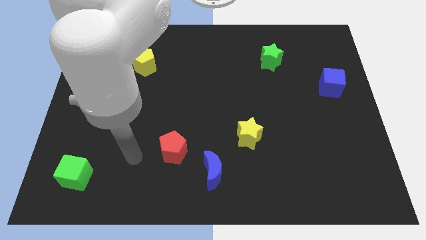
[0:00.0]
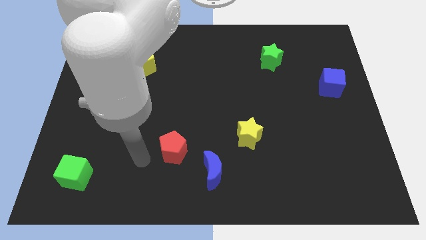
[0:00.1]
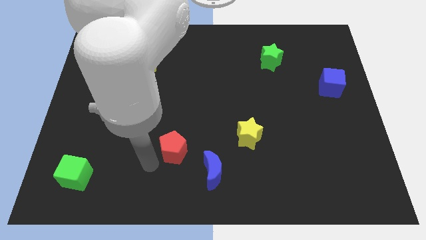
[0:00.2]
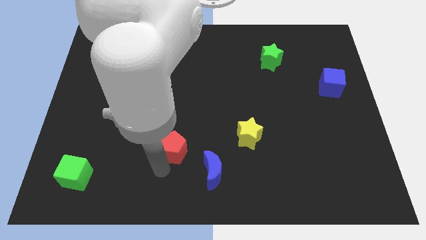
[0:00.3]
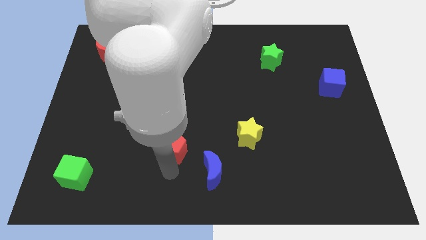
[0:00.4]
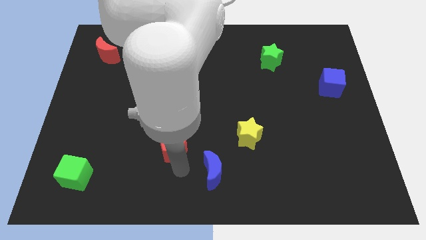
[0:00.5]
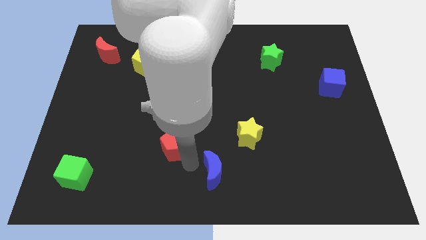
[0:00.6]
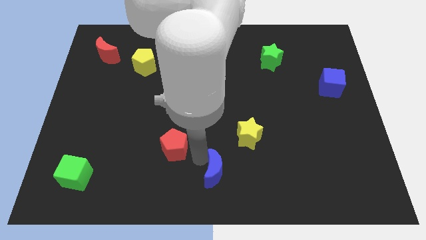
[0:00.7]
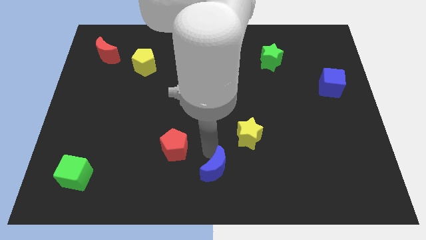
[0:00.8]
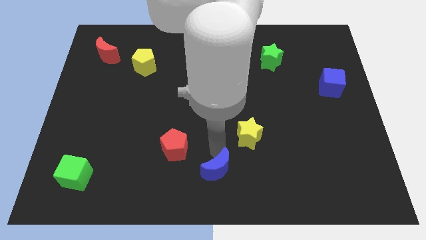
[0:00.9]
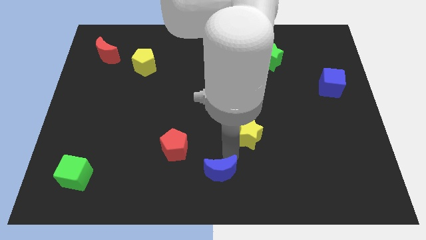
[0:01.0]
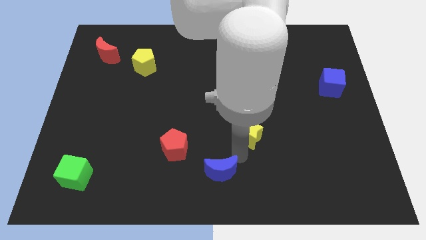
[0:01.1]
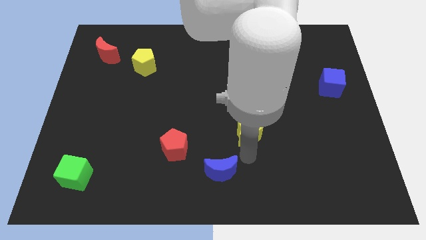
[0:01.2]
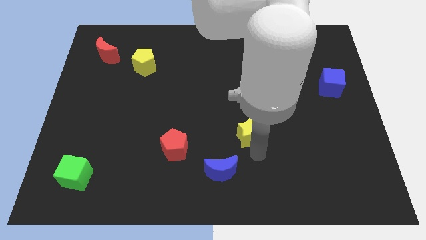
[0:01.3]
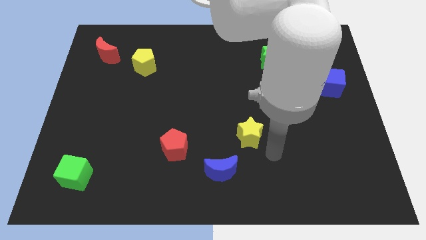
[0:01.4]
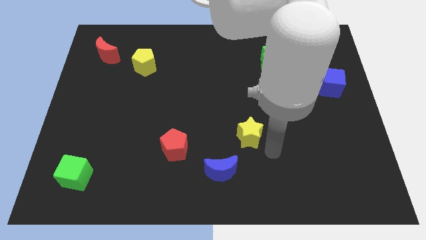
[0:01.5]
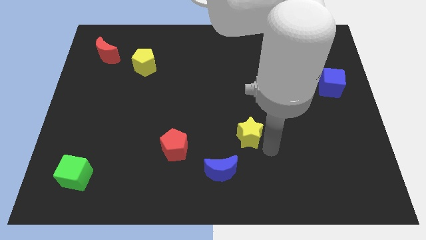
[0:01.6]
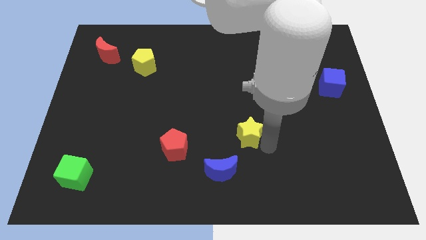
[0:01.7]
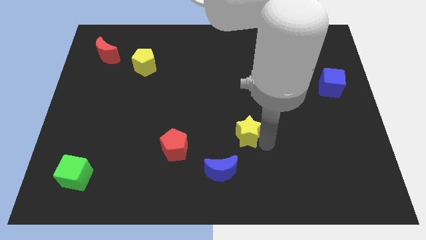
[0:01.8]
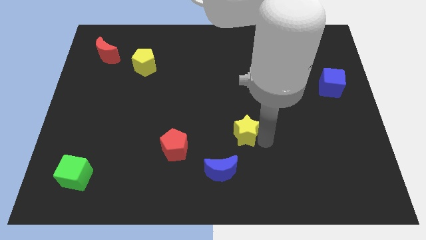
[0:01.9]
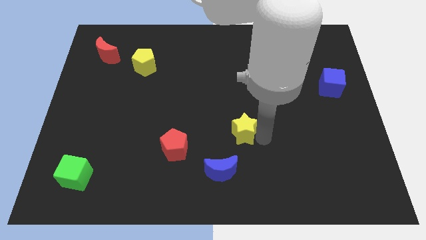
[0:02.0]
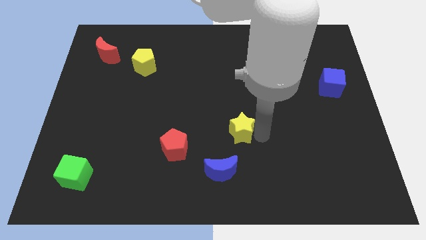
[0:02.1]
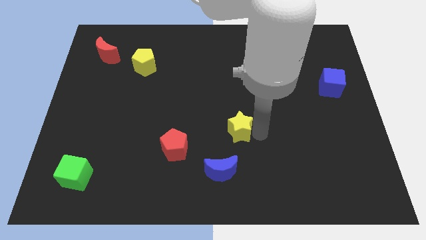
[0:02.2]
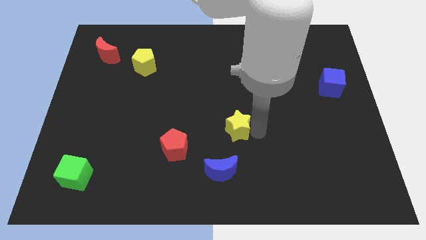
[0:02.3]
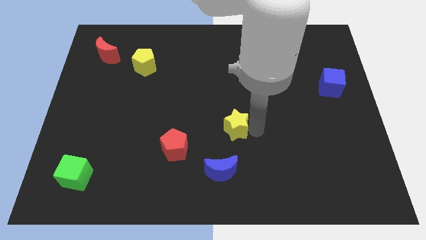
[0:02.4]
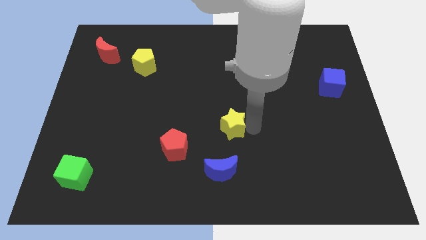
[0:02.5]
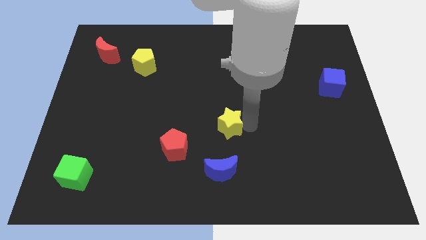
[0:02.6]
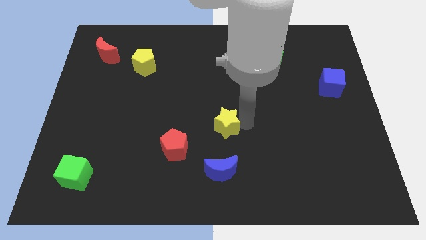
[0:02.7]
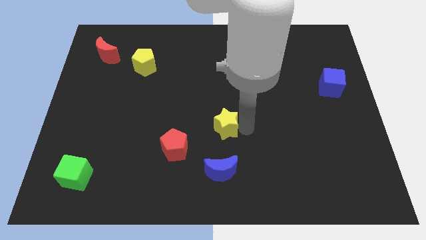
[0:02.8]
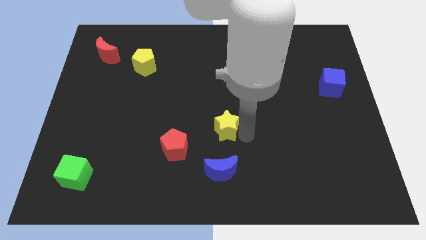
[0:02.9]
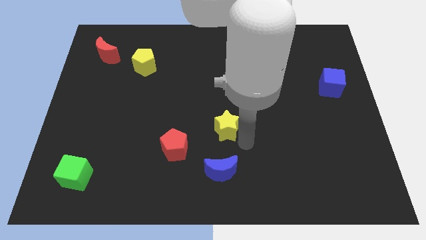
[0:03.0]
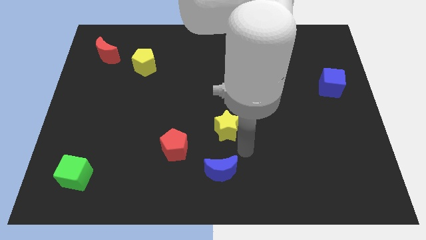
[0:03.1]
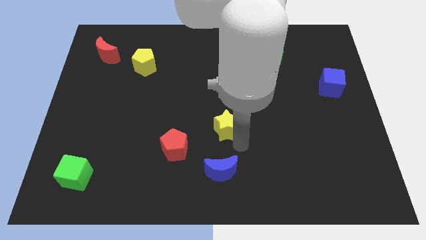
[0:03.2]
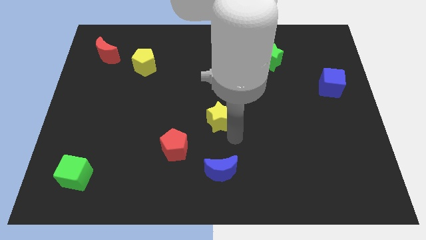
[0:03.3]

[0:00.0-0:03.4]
push the yellow star diagonally upwards and to the left a bit

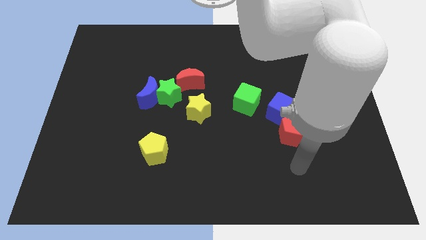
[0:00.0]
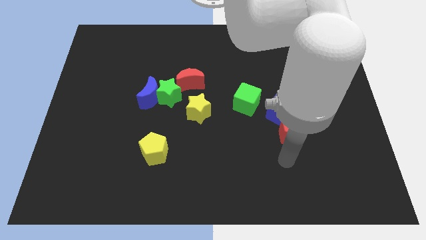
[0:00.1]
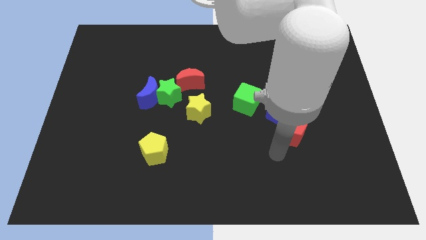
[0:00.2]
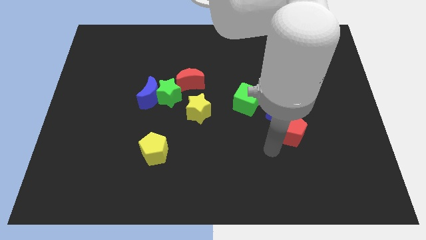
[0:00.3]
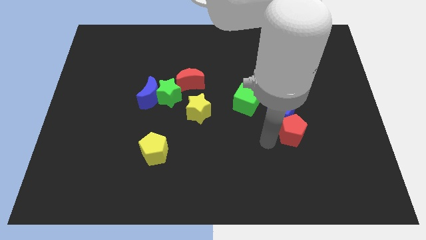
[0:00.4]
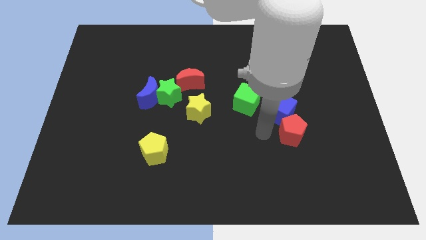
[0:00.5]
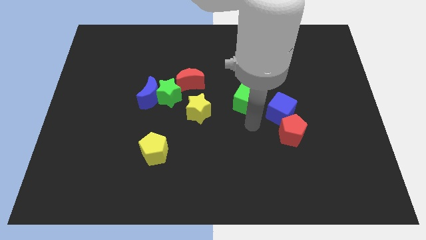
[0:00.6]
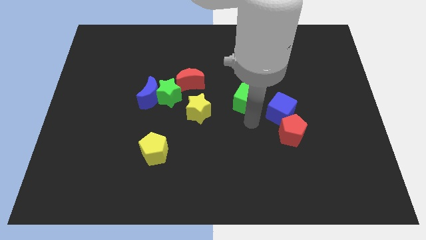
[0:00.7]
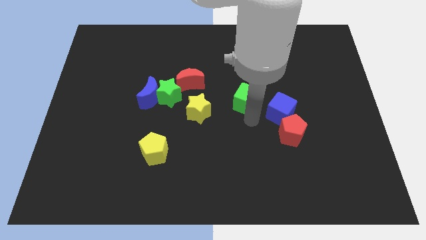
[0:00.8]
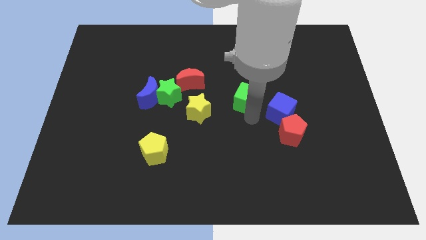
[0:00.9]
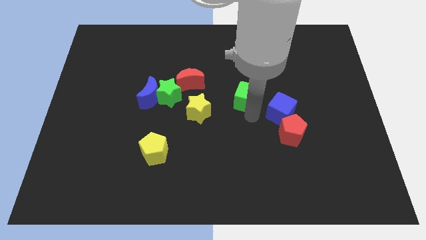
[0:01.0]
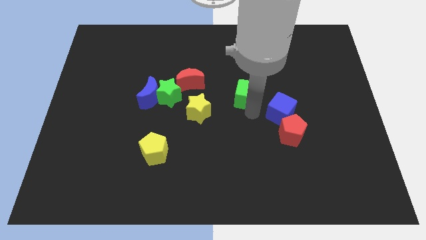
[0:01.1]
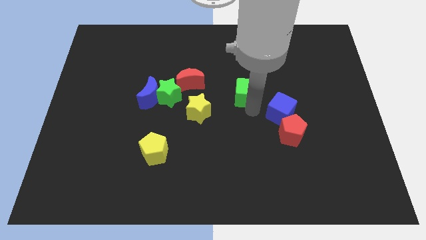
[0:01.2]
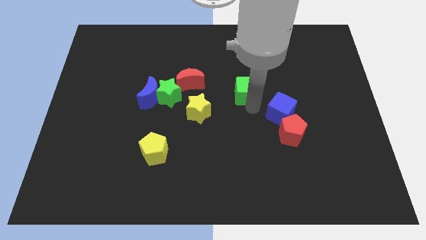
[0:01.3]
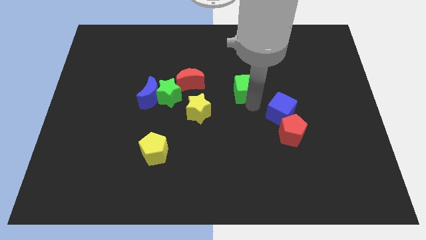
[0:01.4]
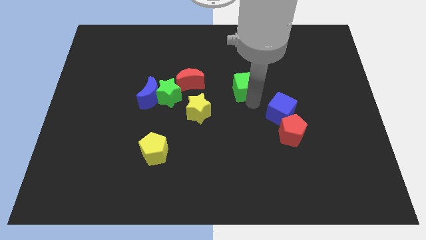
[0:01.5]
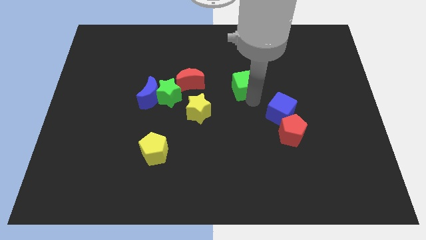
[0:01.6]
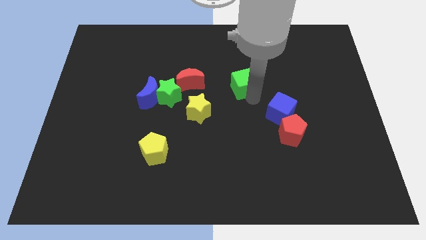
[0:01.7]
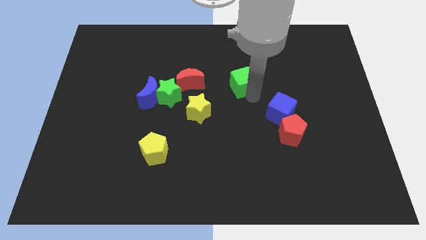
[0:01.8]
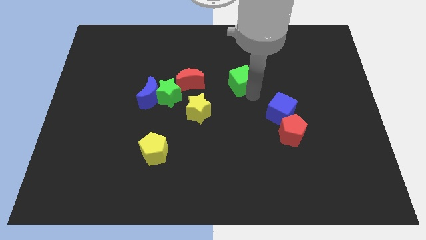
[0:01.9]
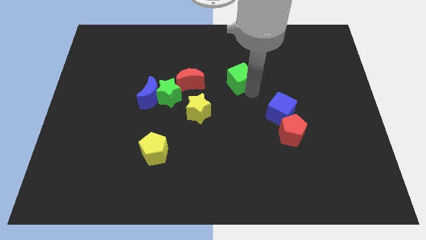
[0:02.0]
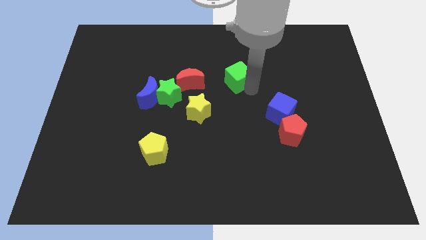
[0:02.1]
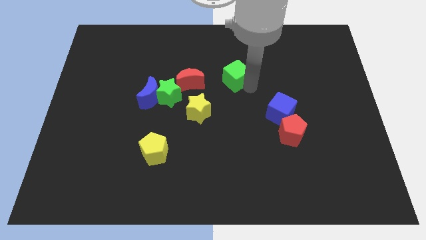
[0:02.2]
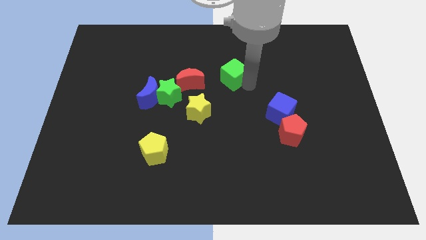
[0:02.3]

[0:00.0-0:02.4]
push the green cube upwards and left a little

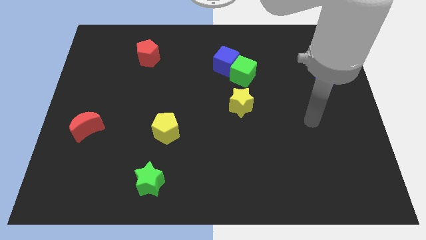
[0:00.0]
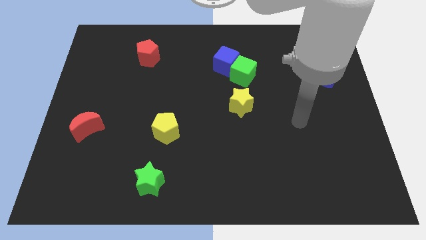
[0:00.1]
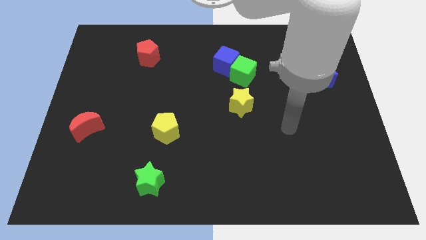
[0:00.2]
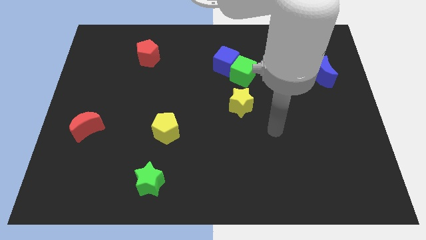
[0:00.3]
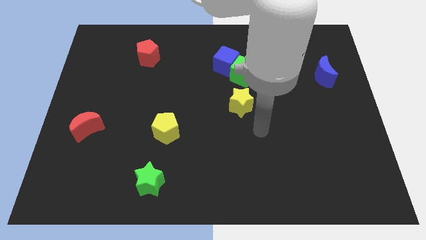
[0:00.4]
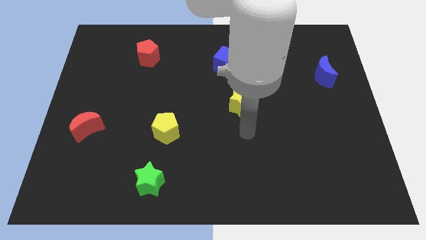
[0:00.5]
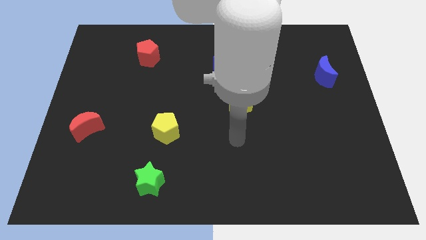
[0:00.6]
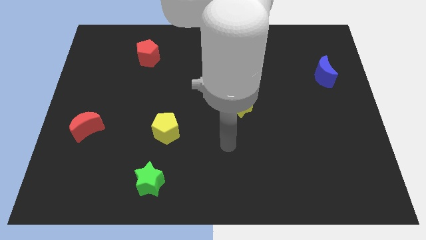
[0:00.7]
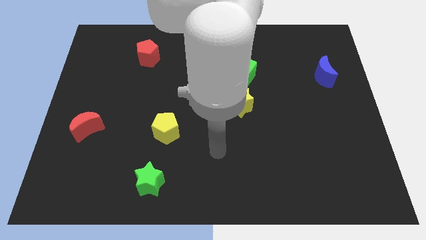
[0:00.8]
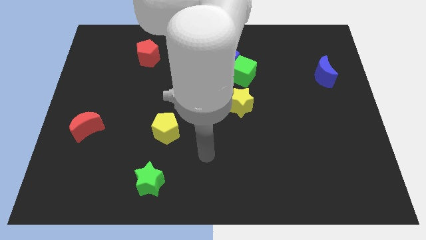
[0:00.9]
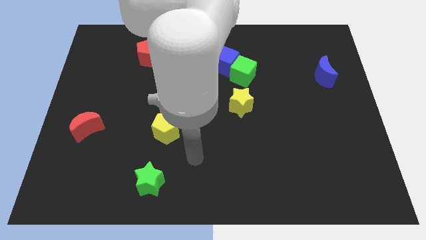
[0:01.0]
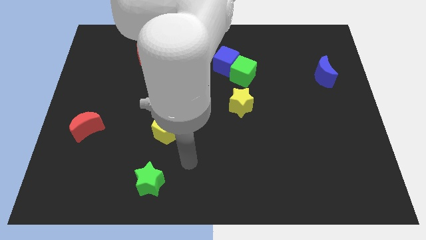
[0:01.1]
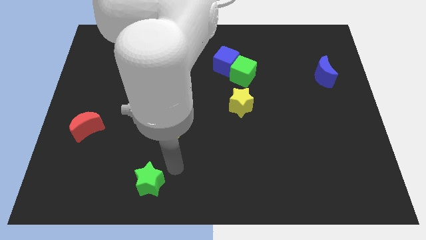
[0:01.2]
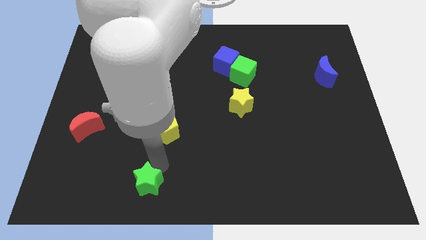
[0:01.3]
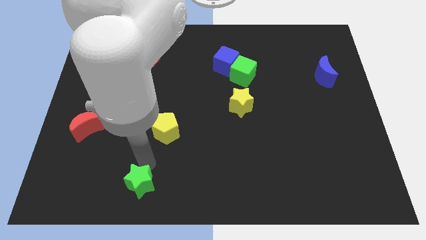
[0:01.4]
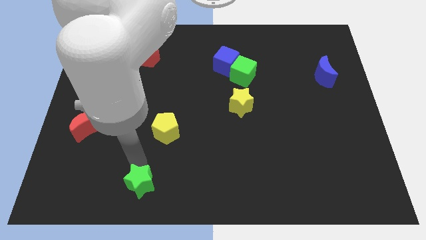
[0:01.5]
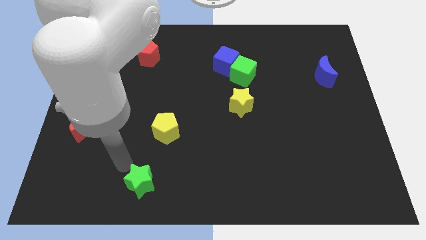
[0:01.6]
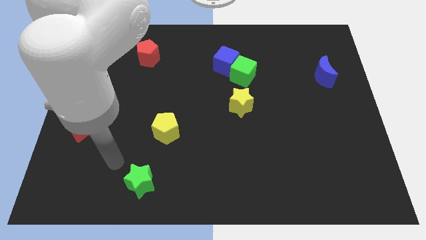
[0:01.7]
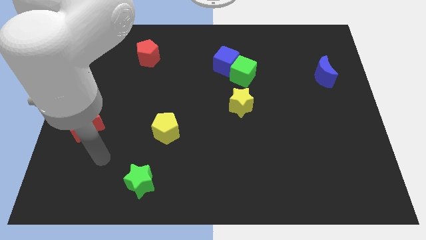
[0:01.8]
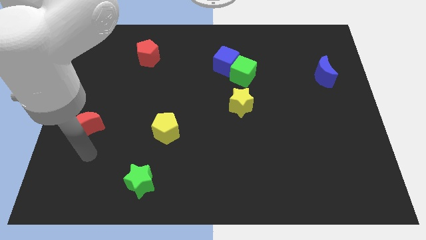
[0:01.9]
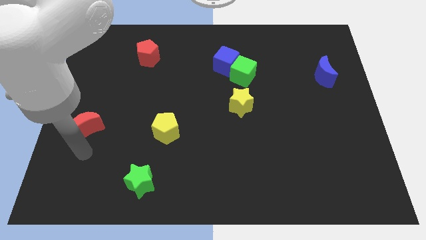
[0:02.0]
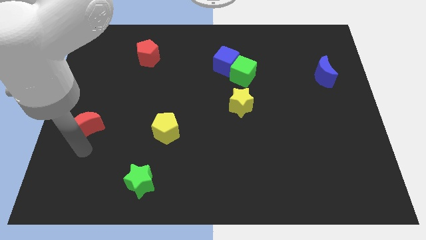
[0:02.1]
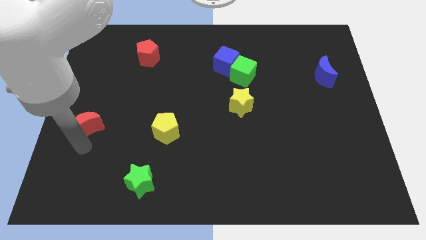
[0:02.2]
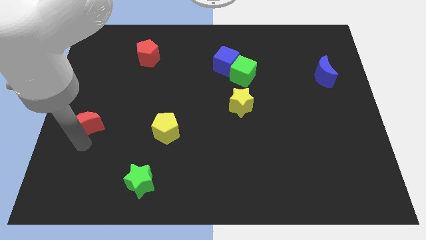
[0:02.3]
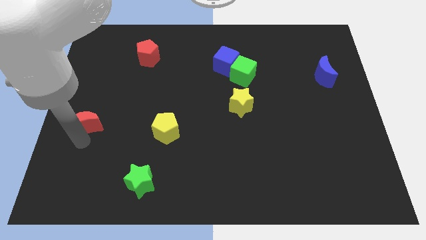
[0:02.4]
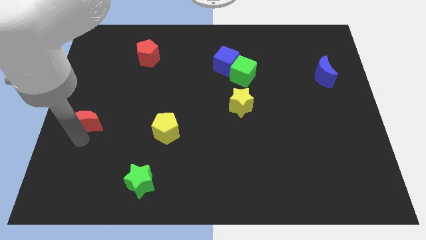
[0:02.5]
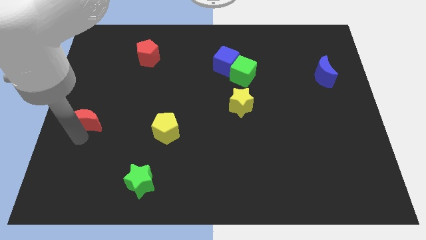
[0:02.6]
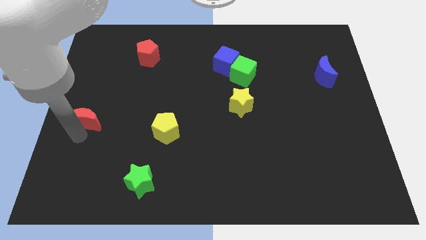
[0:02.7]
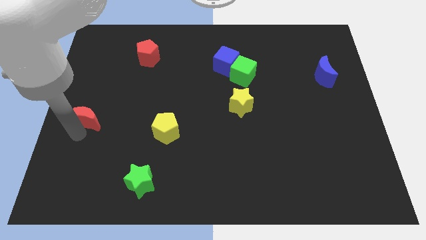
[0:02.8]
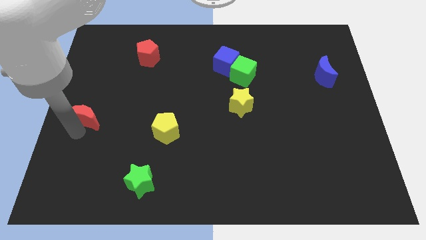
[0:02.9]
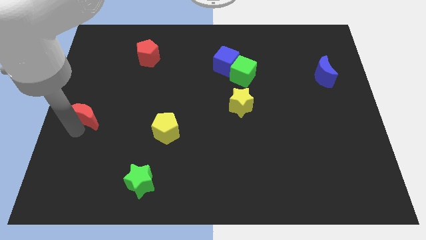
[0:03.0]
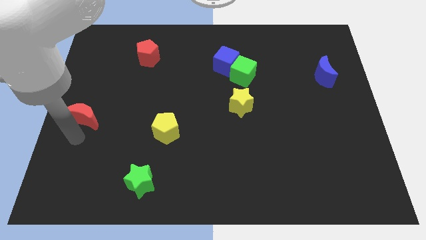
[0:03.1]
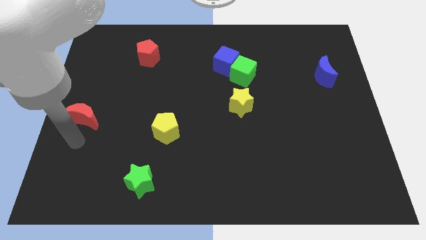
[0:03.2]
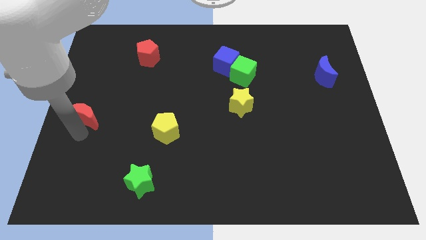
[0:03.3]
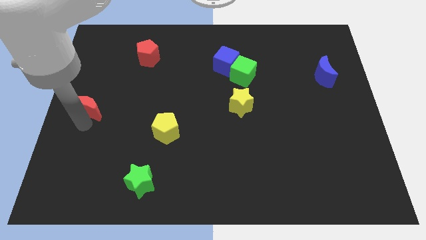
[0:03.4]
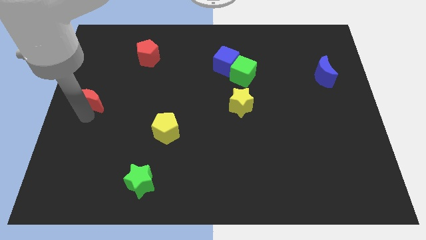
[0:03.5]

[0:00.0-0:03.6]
move the red moon up a bit
